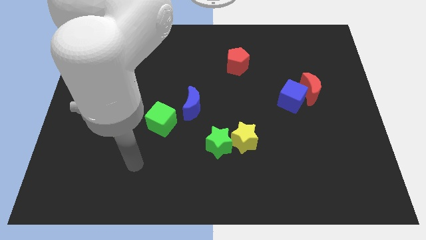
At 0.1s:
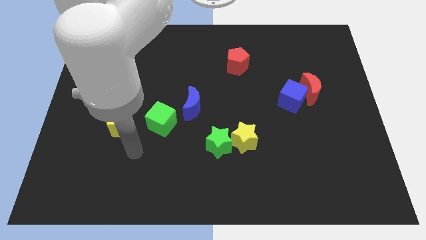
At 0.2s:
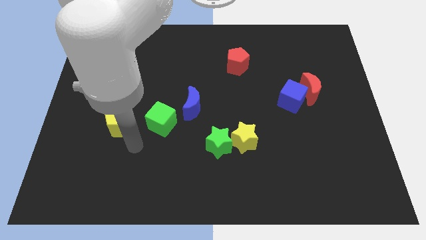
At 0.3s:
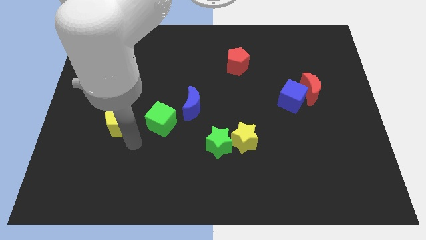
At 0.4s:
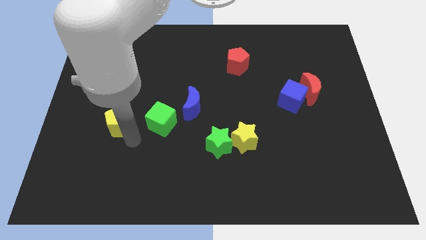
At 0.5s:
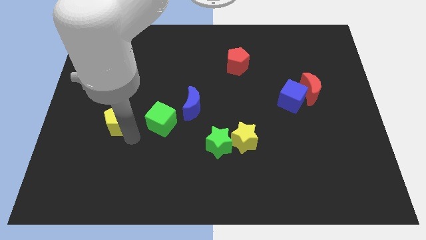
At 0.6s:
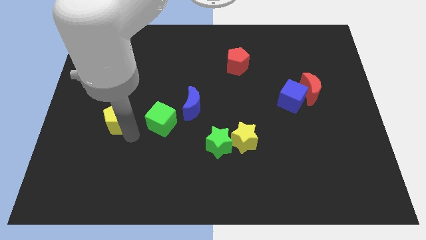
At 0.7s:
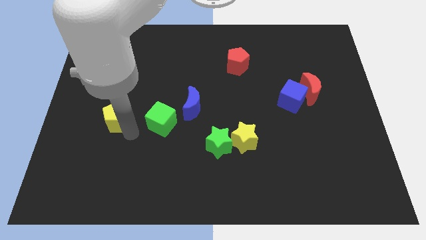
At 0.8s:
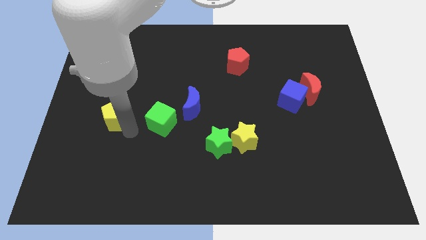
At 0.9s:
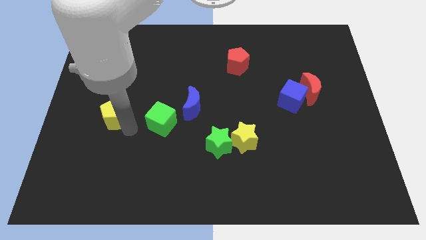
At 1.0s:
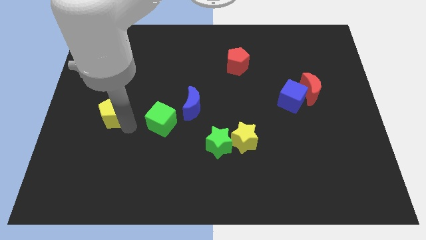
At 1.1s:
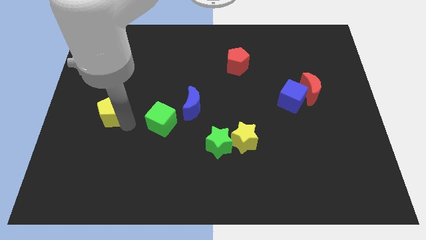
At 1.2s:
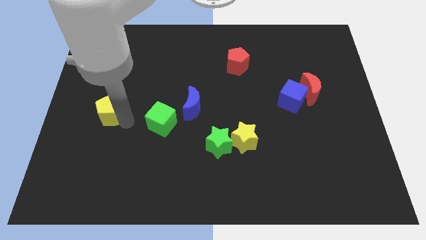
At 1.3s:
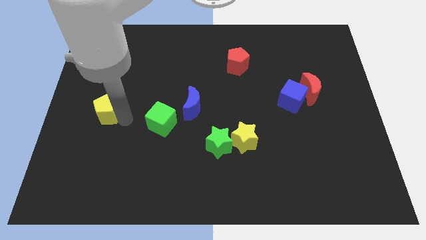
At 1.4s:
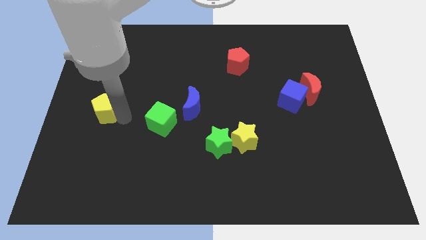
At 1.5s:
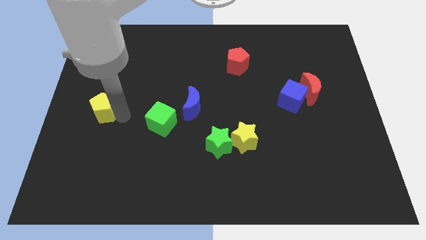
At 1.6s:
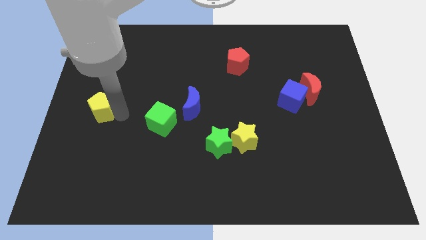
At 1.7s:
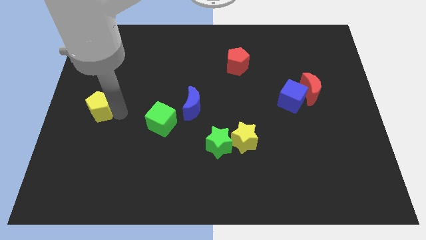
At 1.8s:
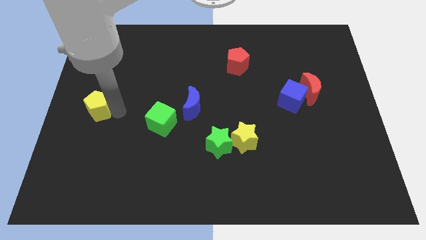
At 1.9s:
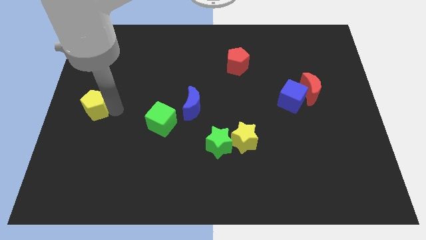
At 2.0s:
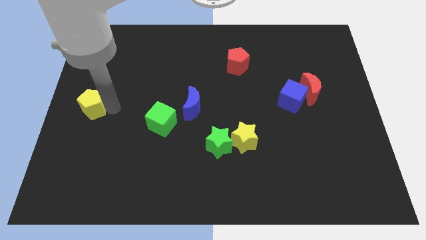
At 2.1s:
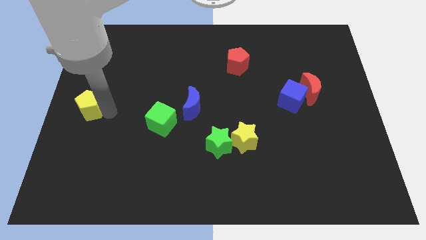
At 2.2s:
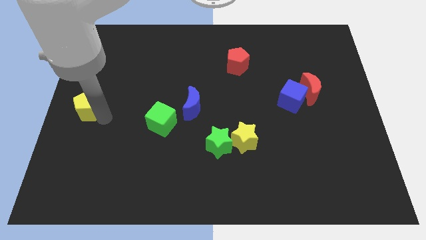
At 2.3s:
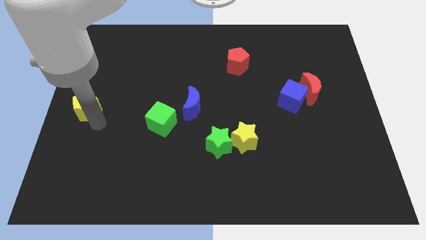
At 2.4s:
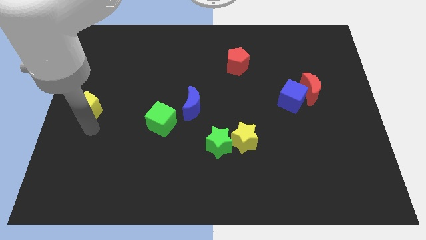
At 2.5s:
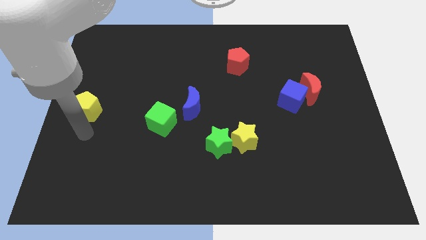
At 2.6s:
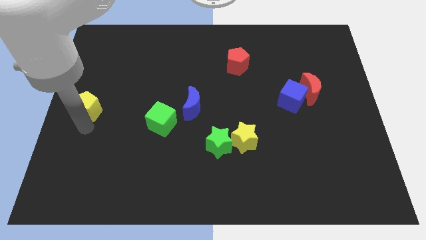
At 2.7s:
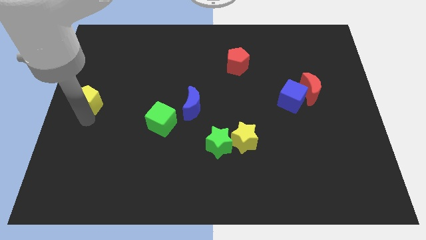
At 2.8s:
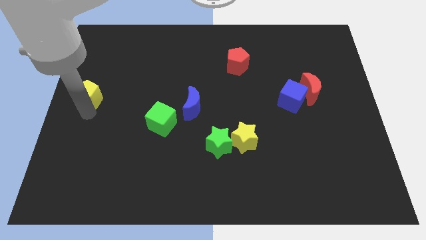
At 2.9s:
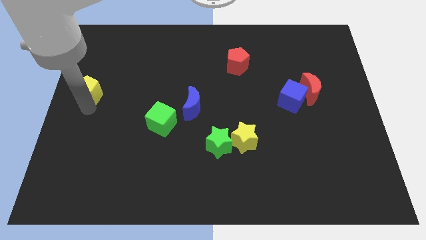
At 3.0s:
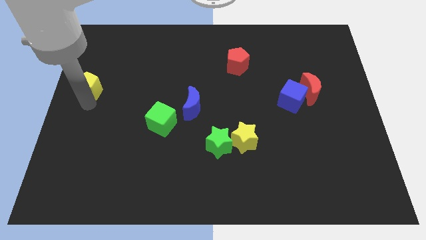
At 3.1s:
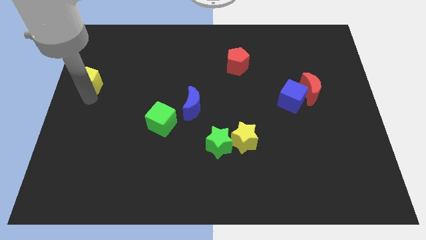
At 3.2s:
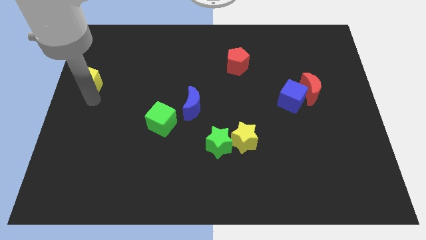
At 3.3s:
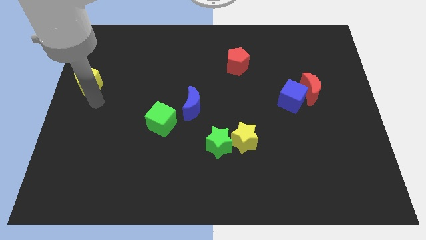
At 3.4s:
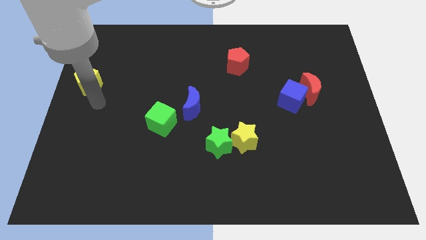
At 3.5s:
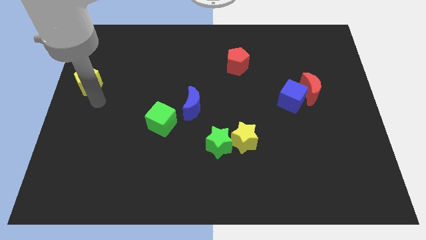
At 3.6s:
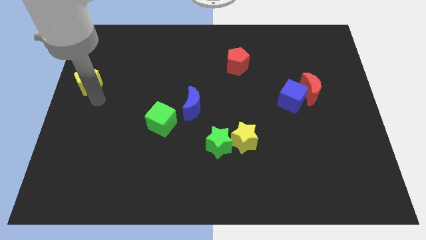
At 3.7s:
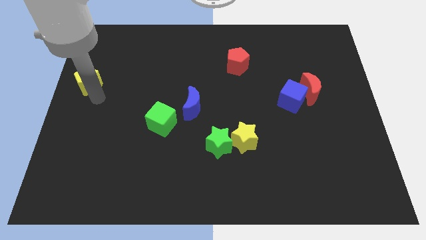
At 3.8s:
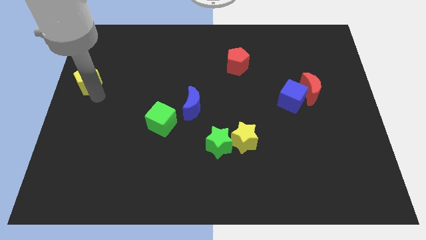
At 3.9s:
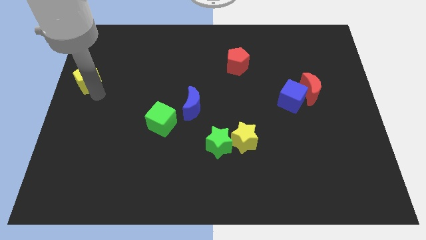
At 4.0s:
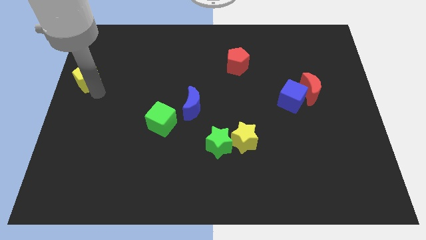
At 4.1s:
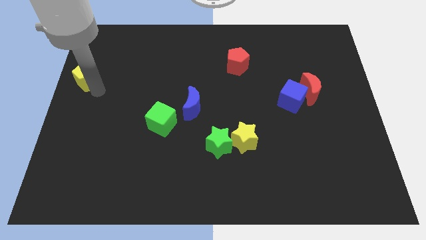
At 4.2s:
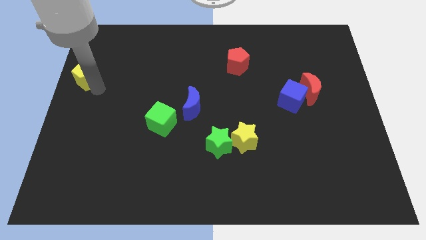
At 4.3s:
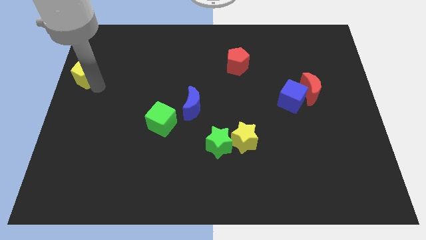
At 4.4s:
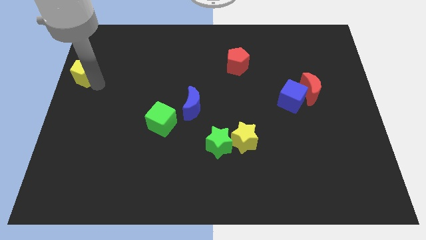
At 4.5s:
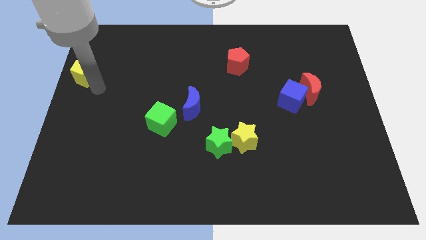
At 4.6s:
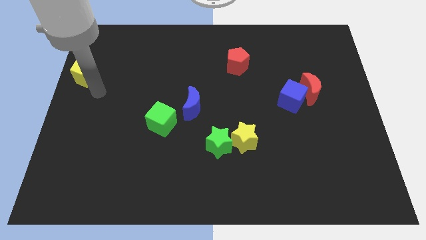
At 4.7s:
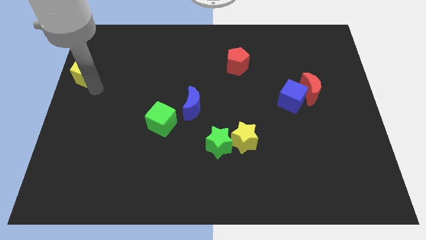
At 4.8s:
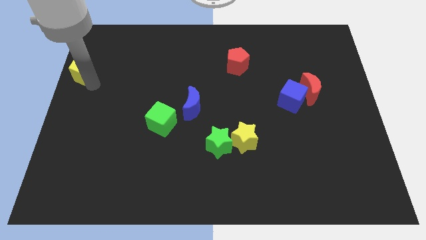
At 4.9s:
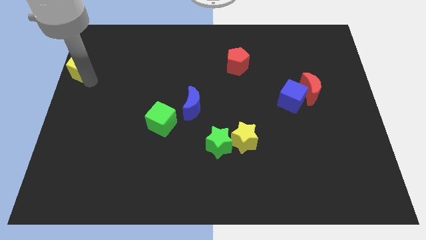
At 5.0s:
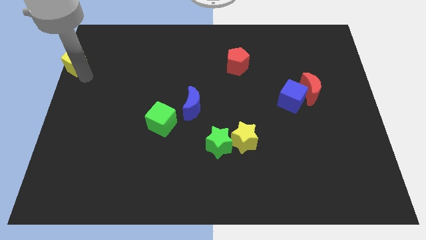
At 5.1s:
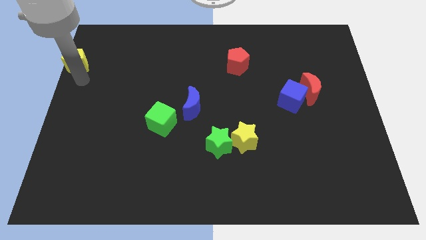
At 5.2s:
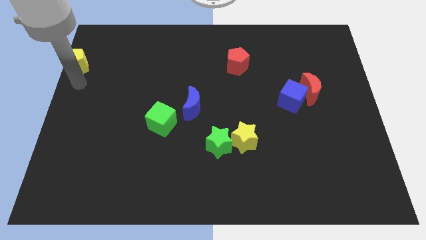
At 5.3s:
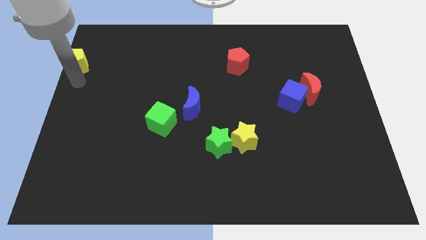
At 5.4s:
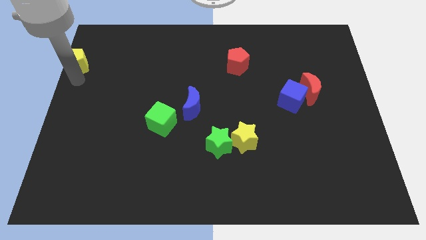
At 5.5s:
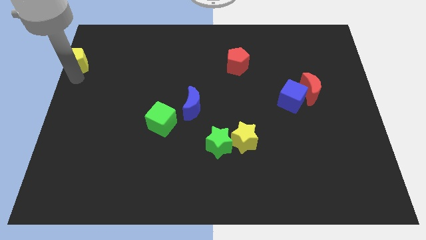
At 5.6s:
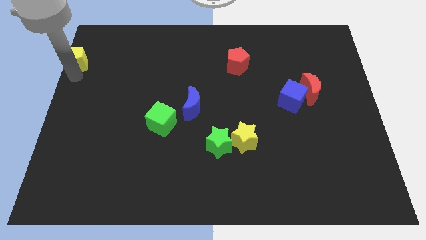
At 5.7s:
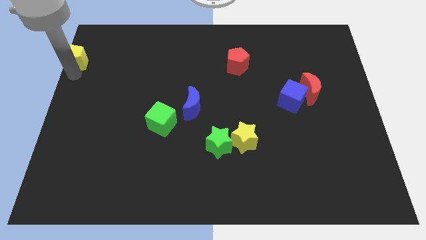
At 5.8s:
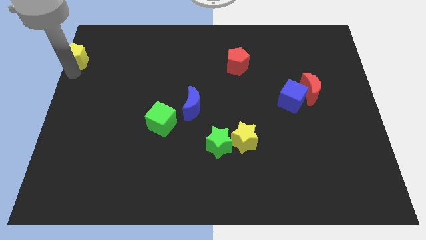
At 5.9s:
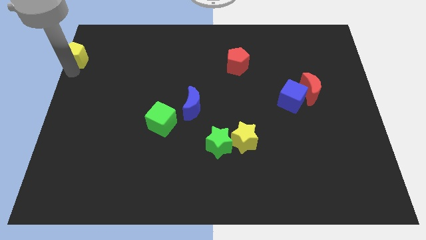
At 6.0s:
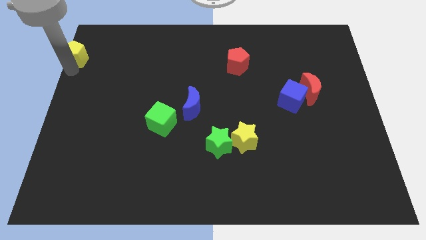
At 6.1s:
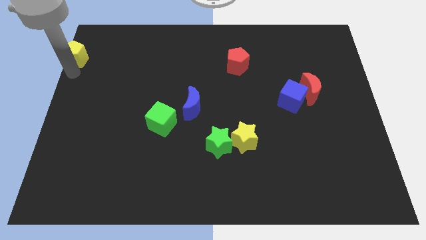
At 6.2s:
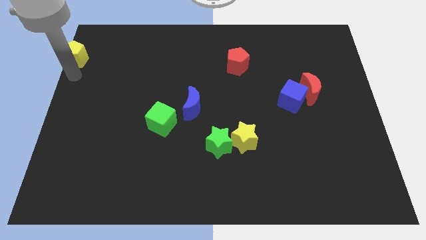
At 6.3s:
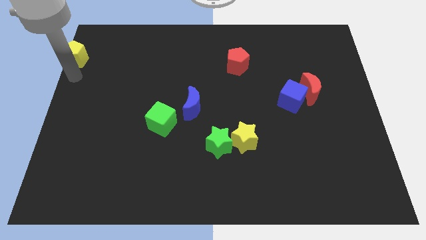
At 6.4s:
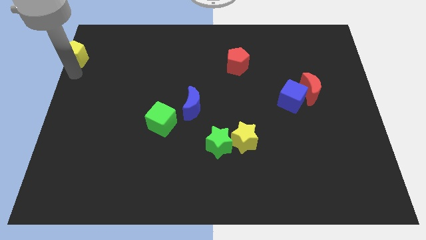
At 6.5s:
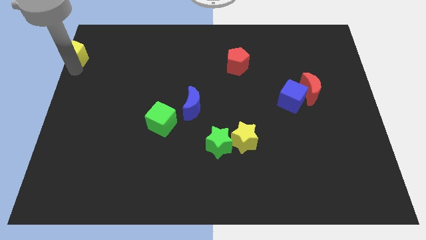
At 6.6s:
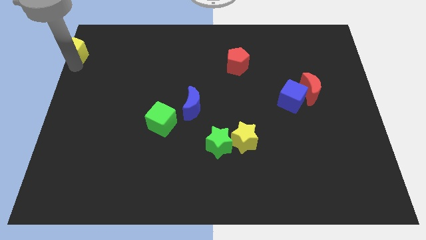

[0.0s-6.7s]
push the yellow pentagon to the top left corner
